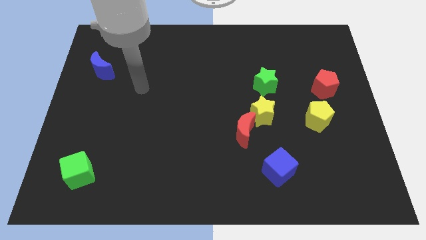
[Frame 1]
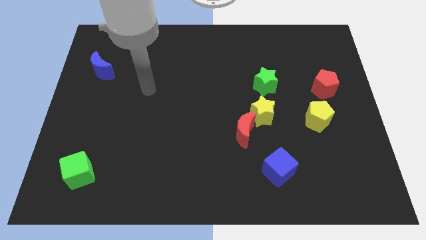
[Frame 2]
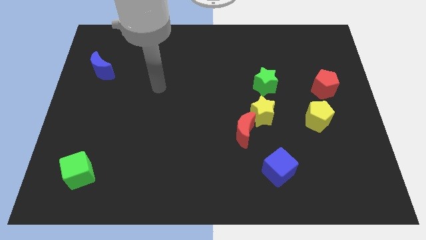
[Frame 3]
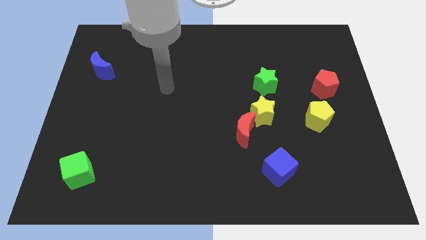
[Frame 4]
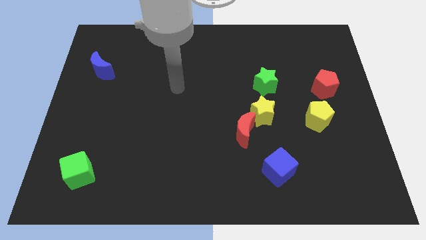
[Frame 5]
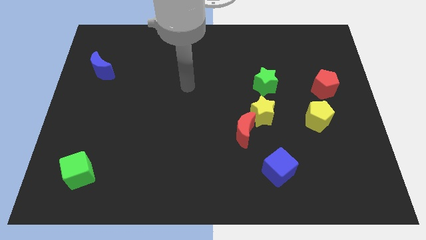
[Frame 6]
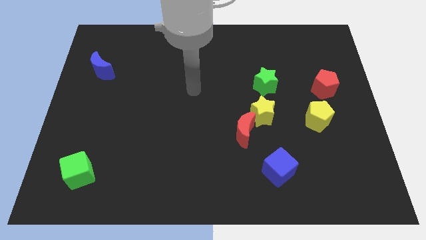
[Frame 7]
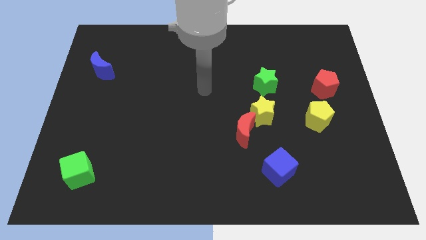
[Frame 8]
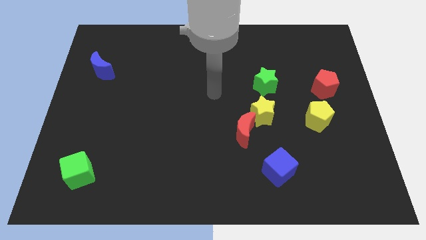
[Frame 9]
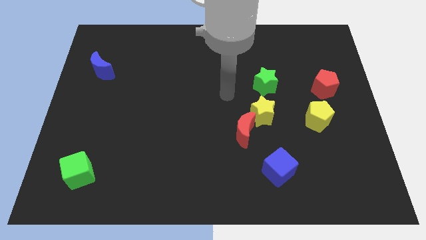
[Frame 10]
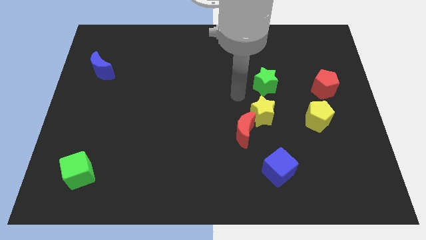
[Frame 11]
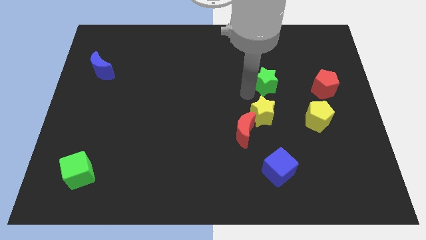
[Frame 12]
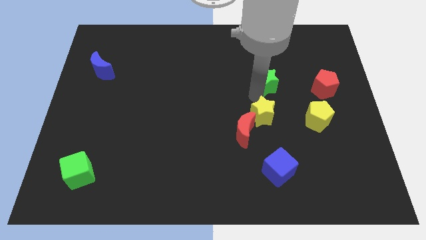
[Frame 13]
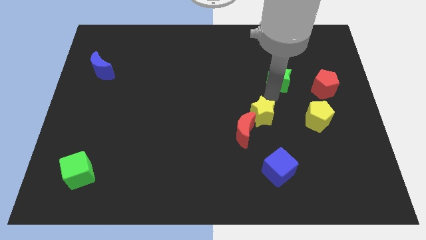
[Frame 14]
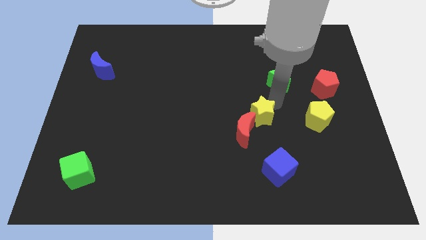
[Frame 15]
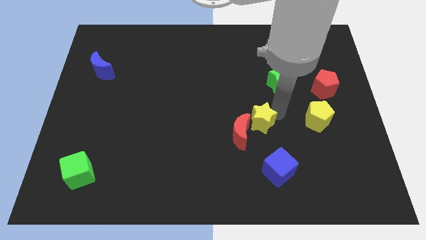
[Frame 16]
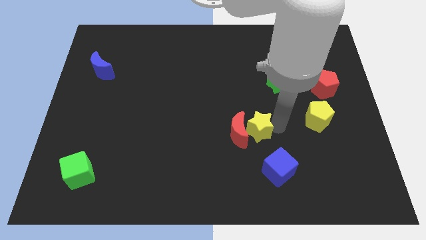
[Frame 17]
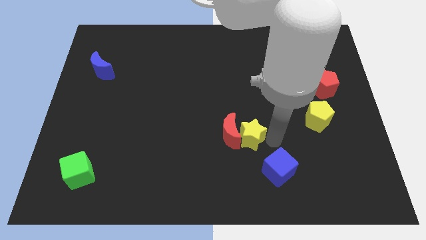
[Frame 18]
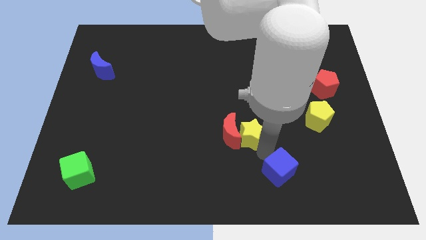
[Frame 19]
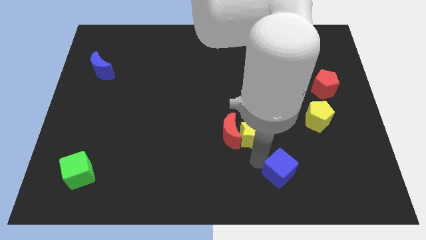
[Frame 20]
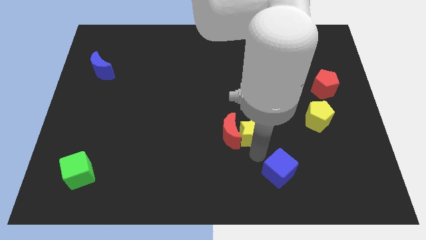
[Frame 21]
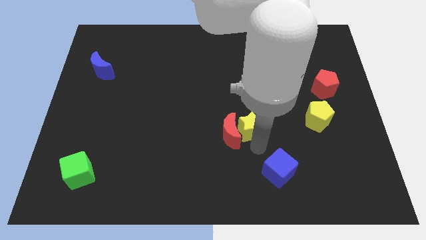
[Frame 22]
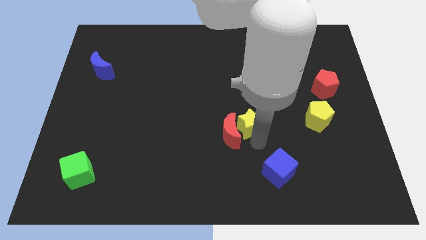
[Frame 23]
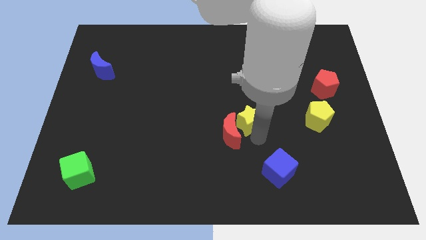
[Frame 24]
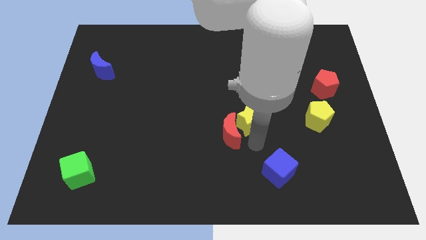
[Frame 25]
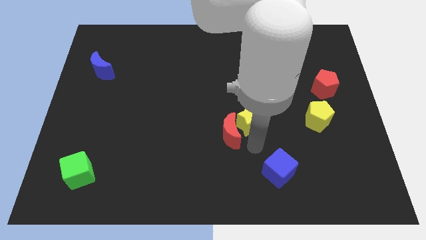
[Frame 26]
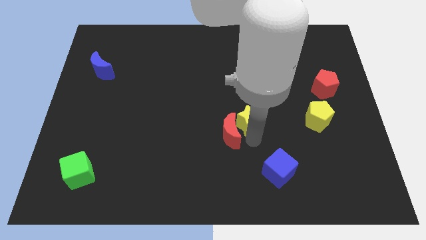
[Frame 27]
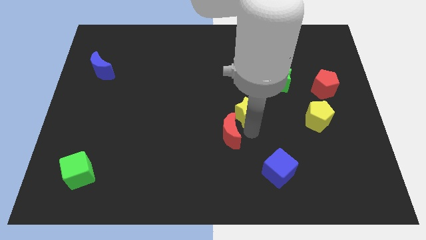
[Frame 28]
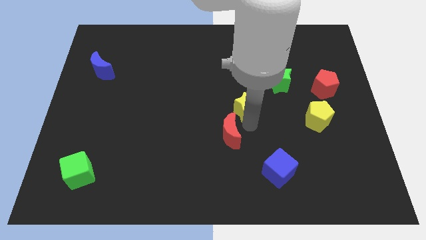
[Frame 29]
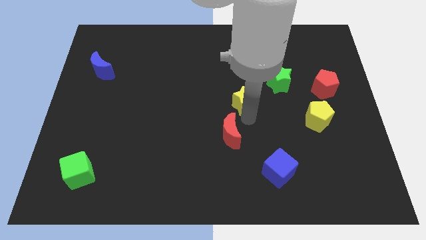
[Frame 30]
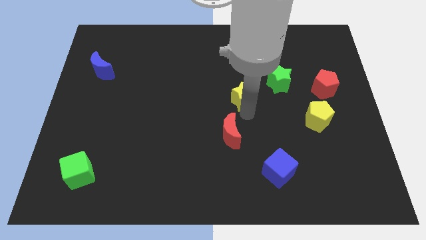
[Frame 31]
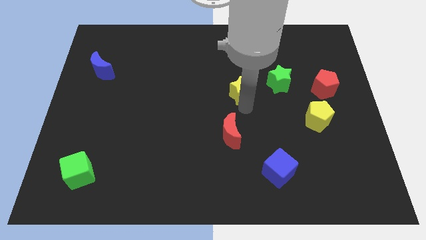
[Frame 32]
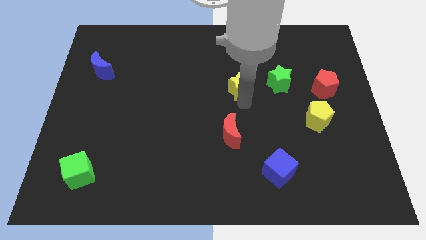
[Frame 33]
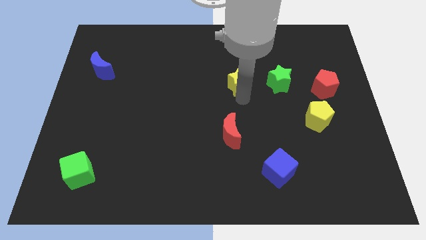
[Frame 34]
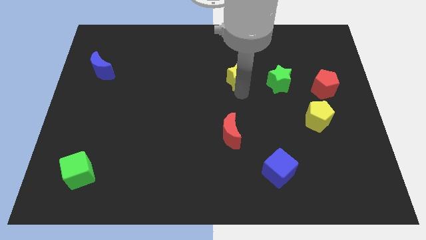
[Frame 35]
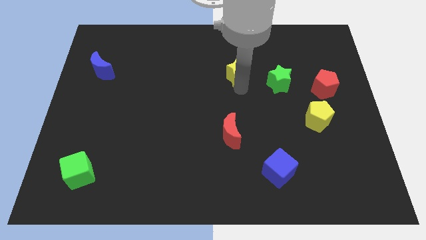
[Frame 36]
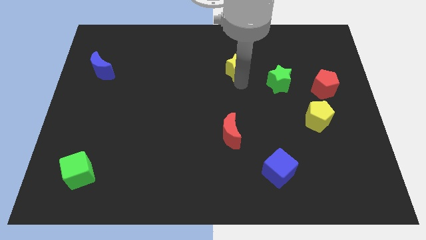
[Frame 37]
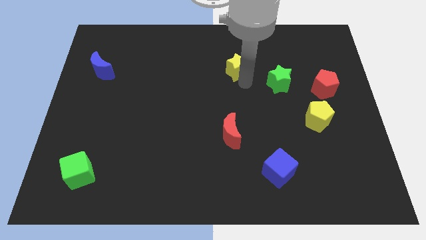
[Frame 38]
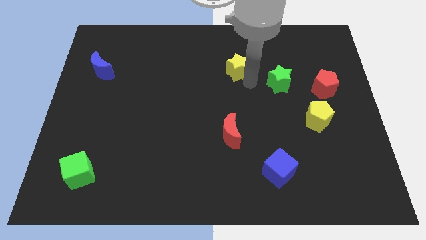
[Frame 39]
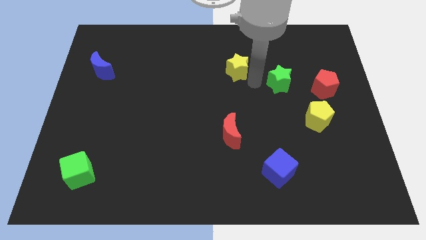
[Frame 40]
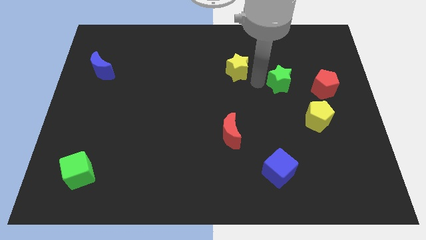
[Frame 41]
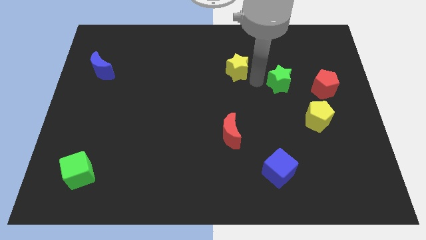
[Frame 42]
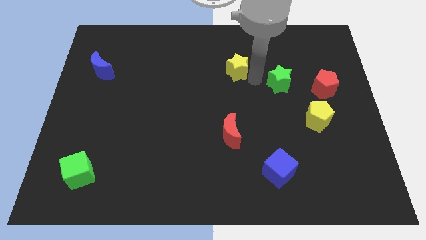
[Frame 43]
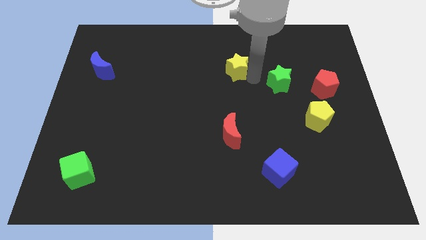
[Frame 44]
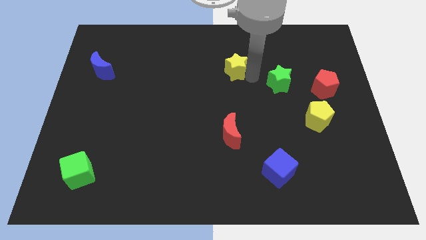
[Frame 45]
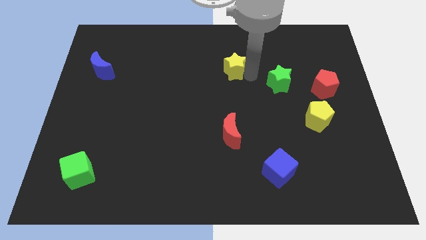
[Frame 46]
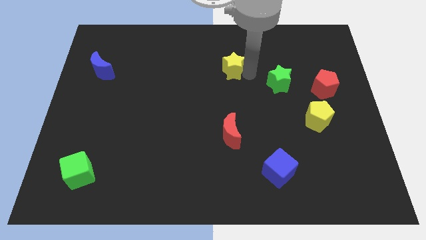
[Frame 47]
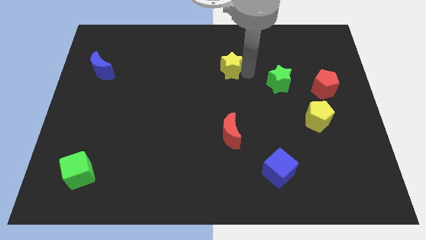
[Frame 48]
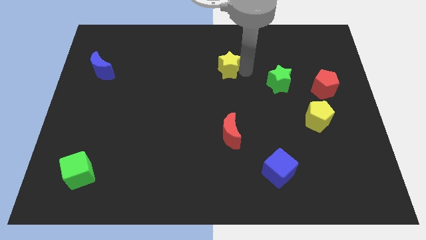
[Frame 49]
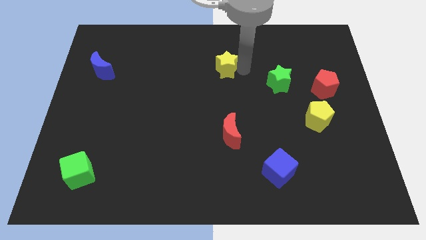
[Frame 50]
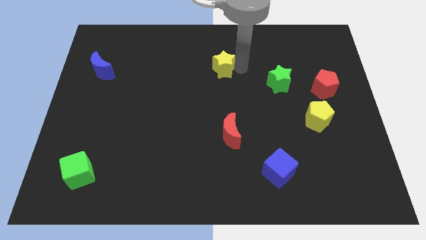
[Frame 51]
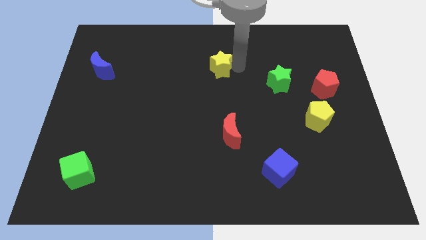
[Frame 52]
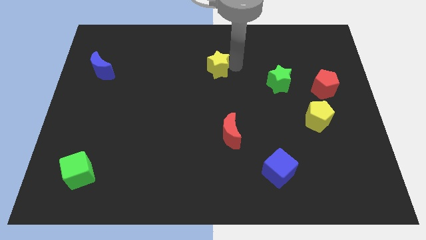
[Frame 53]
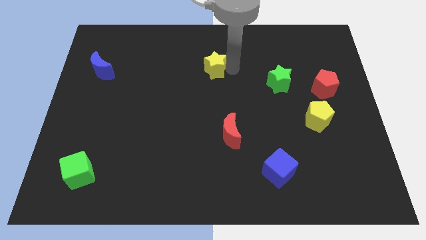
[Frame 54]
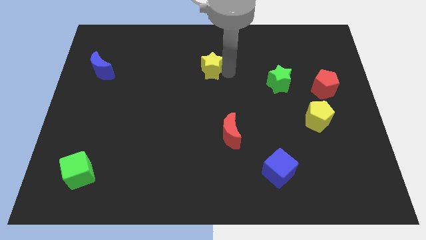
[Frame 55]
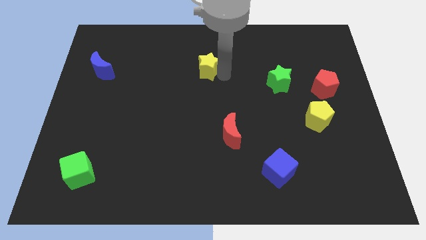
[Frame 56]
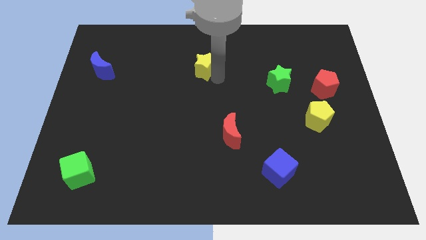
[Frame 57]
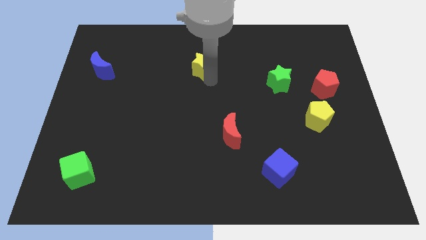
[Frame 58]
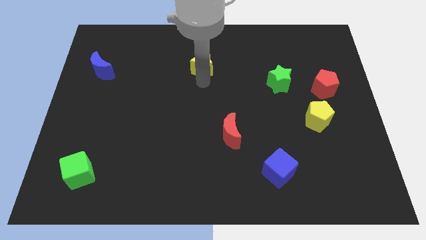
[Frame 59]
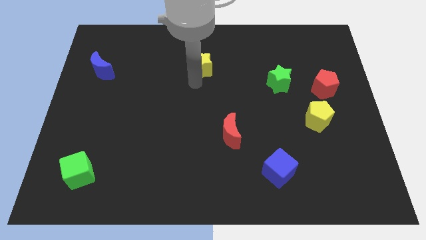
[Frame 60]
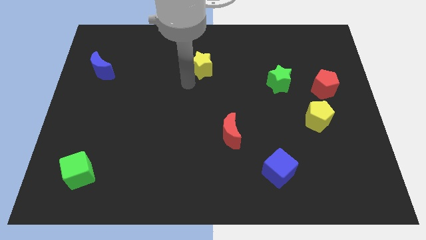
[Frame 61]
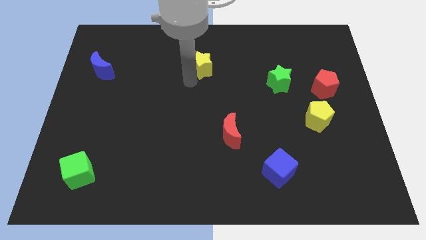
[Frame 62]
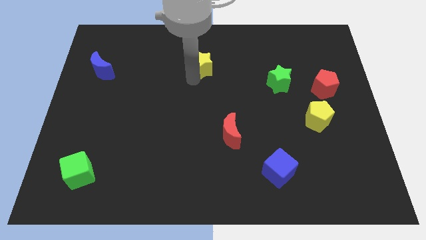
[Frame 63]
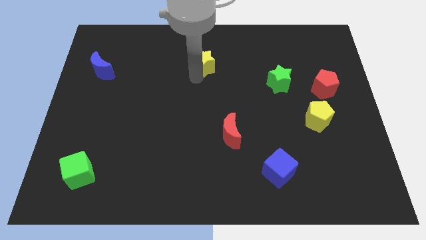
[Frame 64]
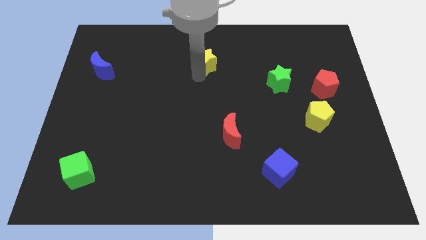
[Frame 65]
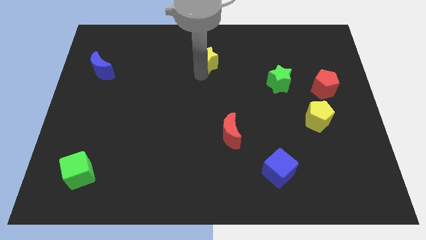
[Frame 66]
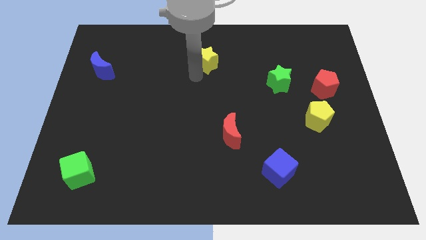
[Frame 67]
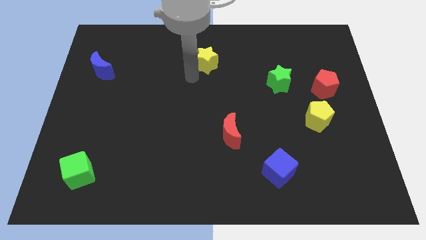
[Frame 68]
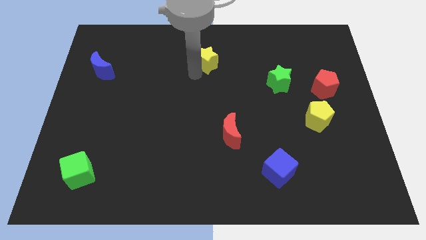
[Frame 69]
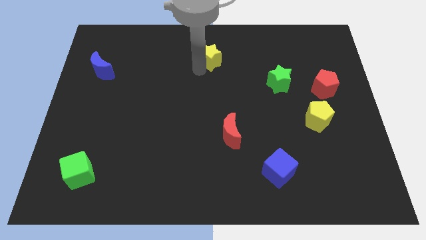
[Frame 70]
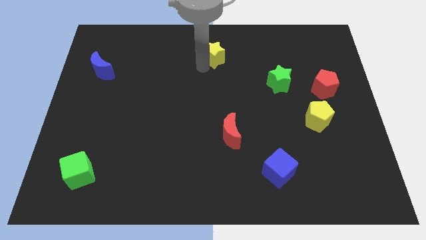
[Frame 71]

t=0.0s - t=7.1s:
move the yellow star to the top
